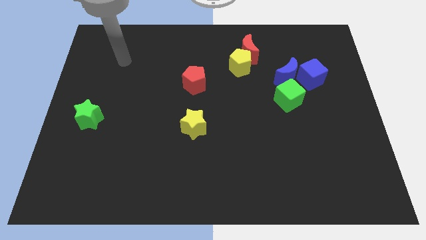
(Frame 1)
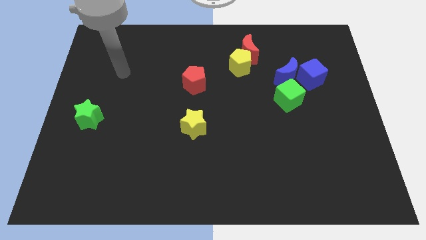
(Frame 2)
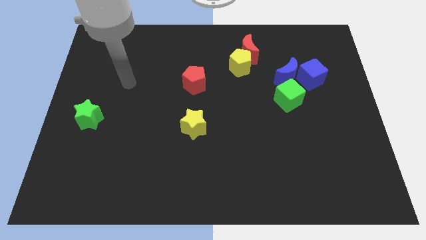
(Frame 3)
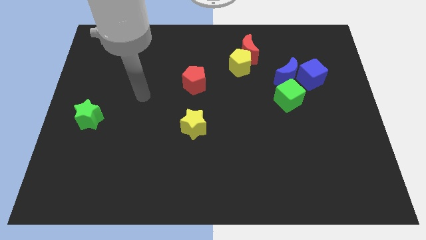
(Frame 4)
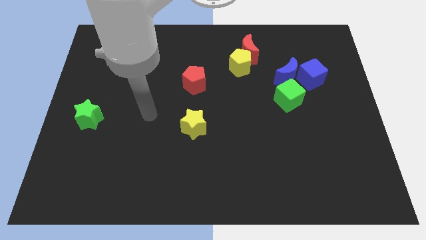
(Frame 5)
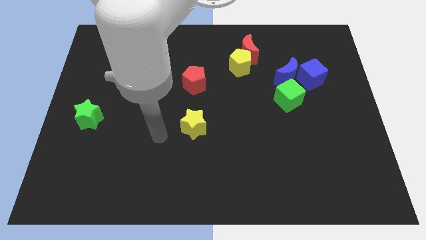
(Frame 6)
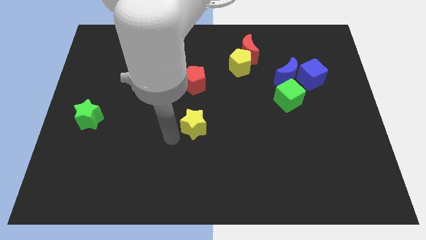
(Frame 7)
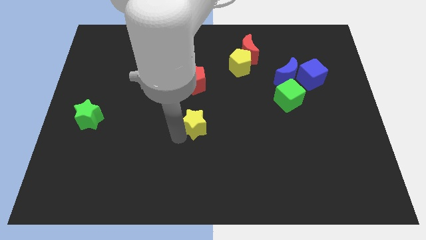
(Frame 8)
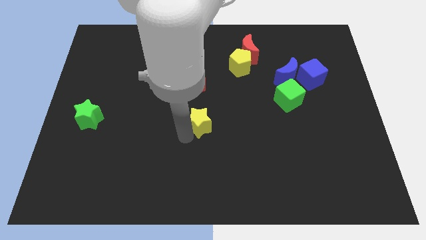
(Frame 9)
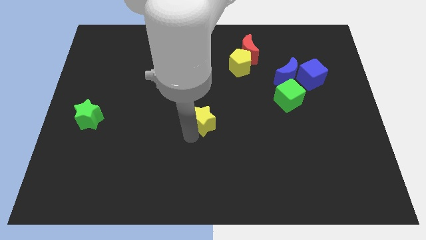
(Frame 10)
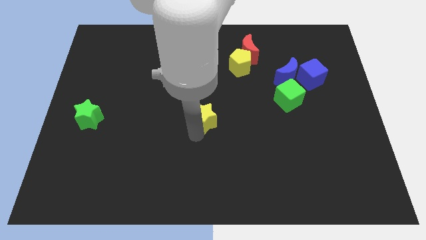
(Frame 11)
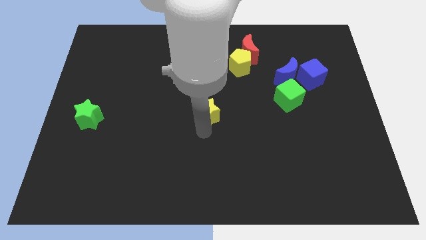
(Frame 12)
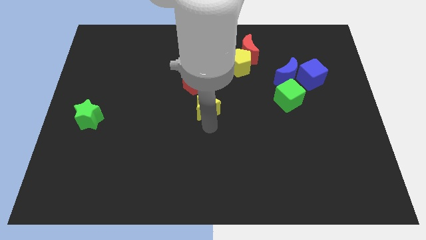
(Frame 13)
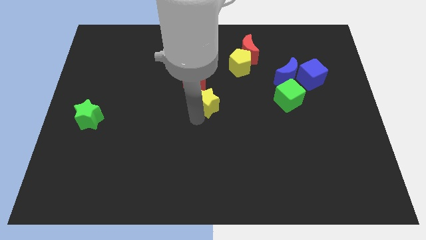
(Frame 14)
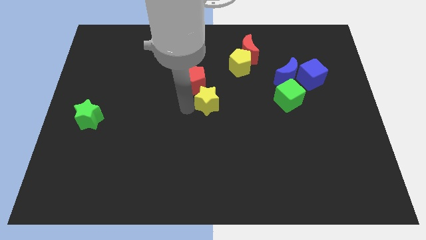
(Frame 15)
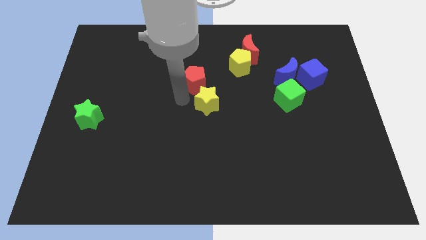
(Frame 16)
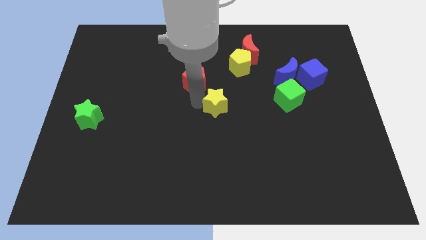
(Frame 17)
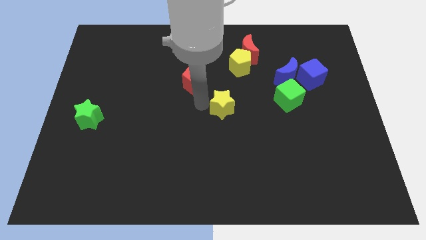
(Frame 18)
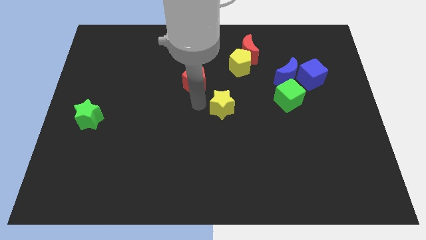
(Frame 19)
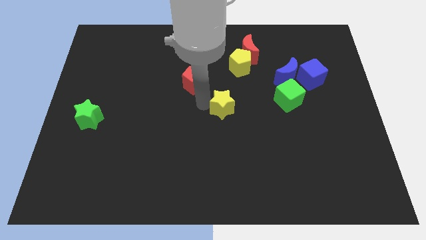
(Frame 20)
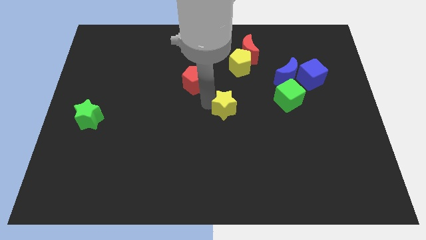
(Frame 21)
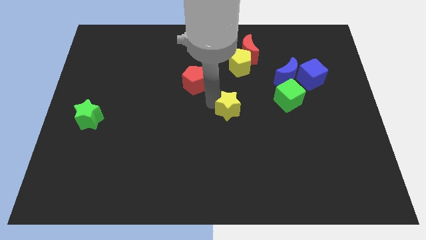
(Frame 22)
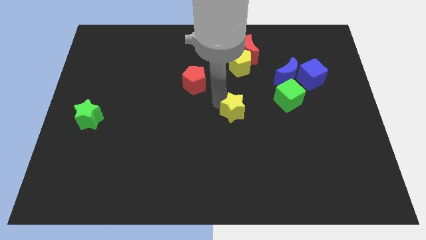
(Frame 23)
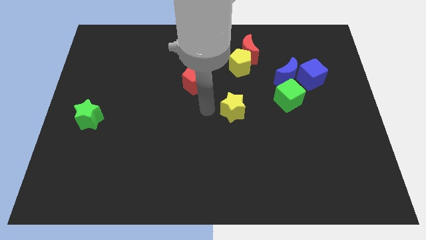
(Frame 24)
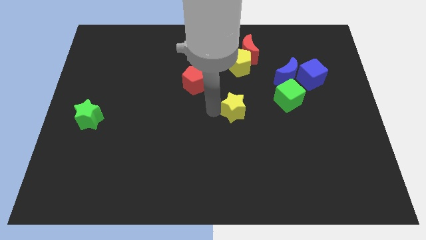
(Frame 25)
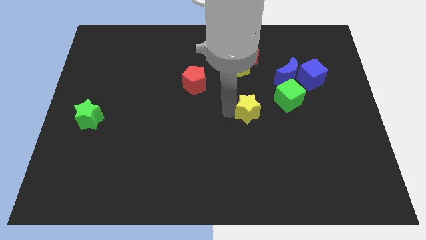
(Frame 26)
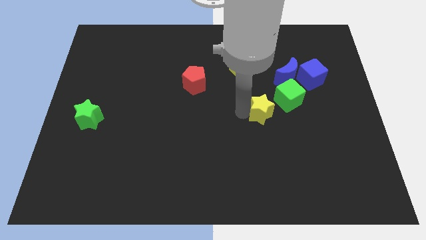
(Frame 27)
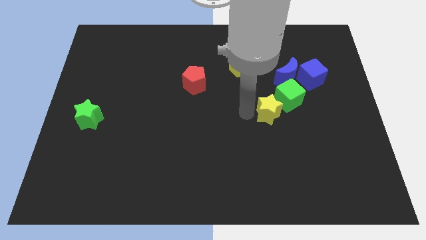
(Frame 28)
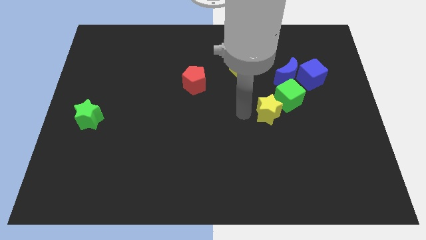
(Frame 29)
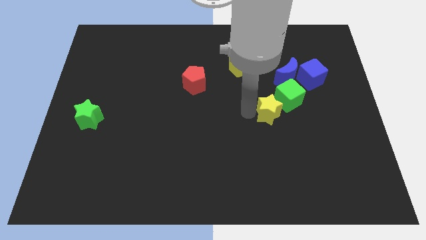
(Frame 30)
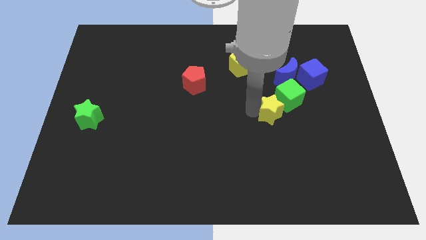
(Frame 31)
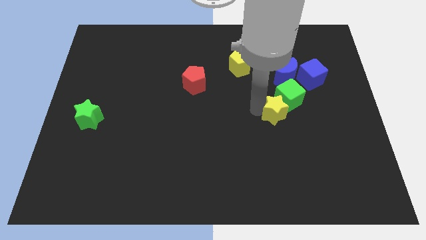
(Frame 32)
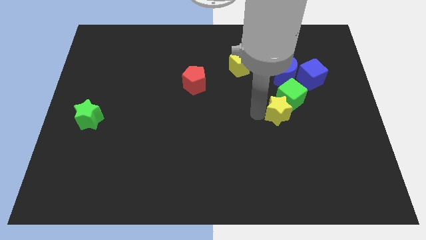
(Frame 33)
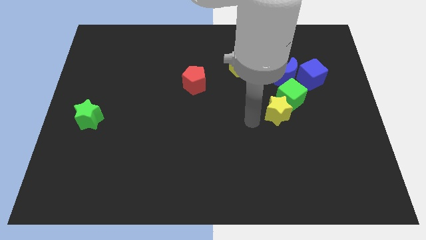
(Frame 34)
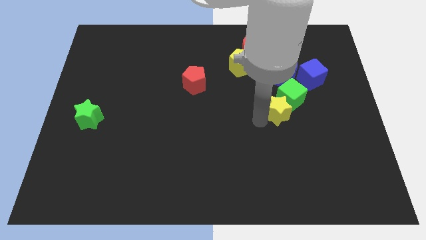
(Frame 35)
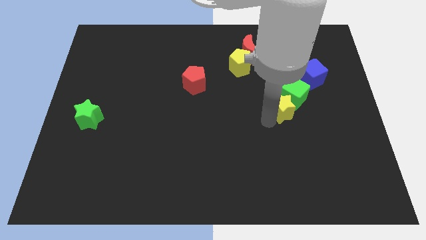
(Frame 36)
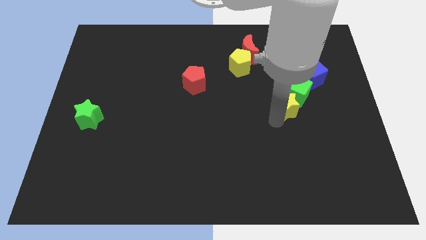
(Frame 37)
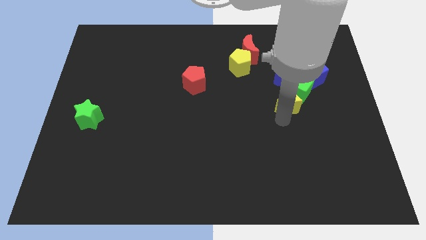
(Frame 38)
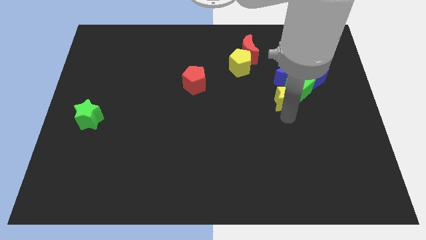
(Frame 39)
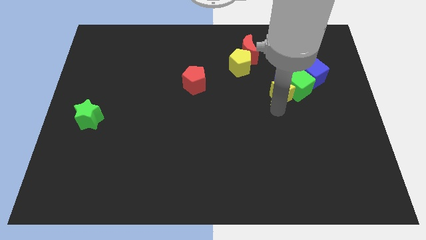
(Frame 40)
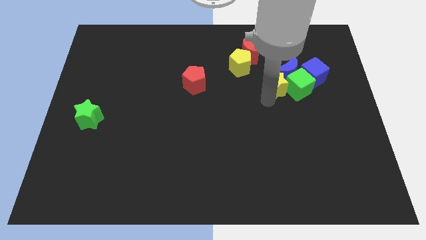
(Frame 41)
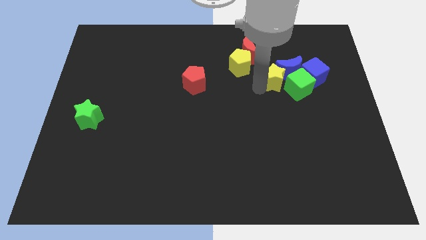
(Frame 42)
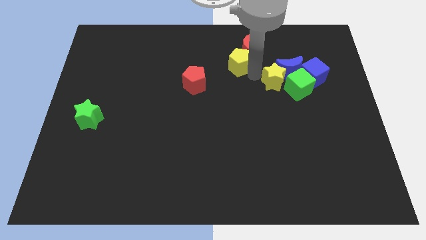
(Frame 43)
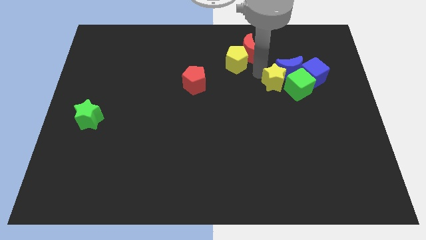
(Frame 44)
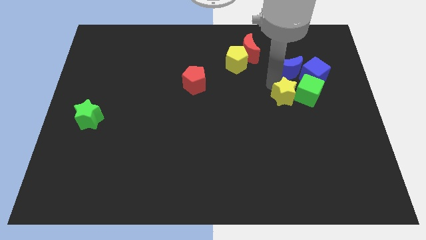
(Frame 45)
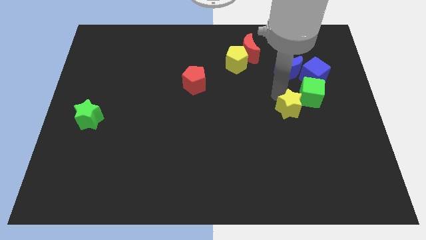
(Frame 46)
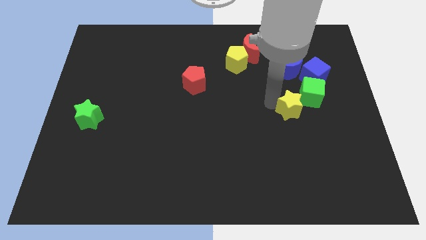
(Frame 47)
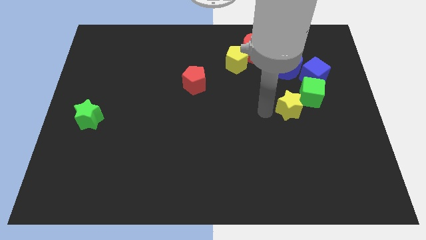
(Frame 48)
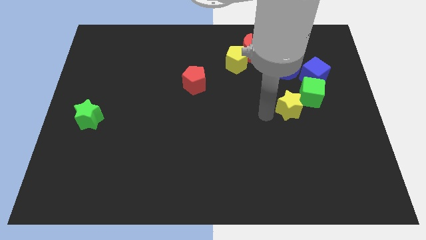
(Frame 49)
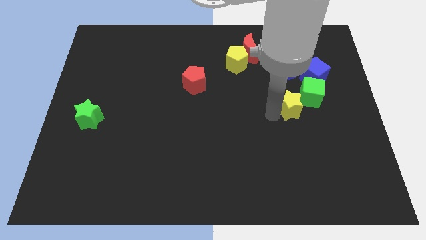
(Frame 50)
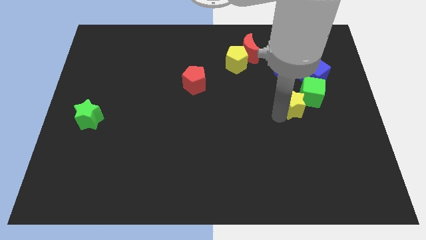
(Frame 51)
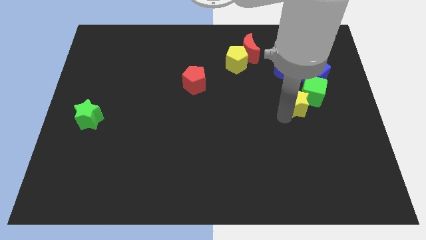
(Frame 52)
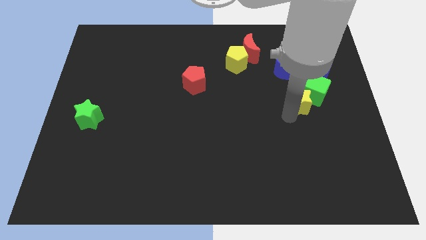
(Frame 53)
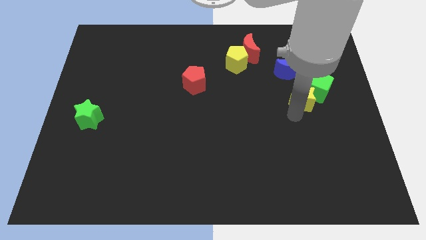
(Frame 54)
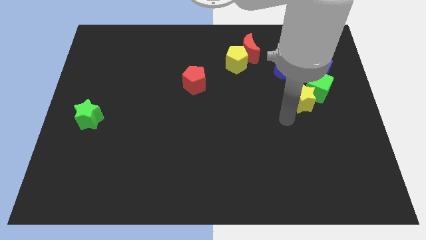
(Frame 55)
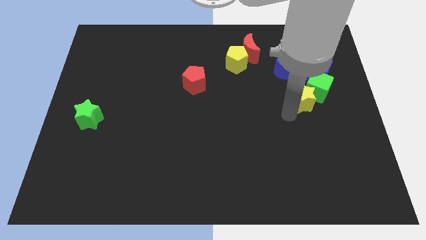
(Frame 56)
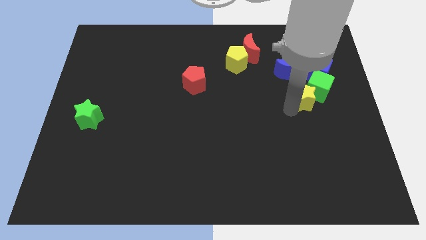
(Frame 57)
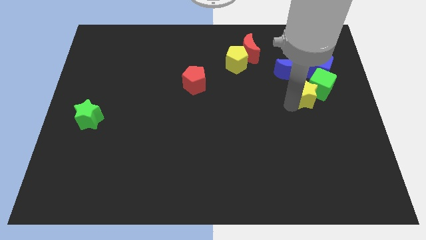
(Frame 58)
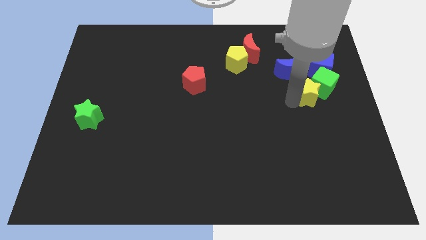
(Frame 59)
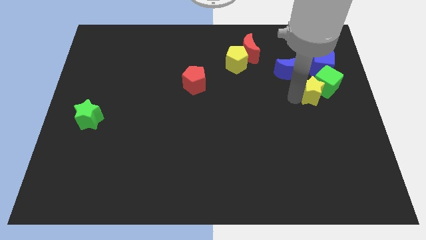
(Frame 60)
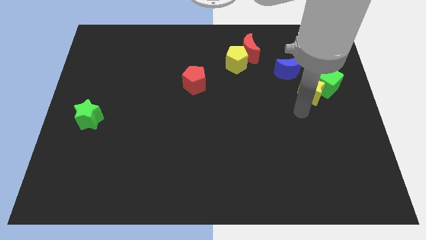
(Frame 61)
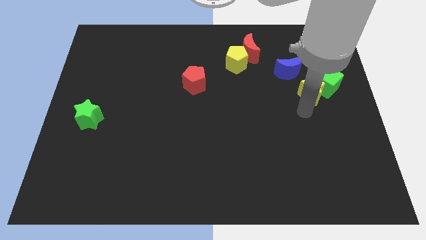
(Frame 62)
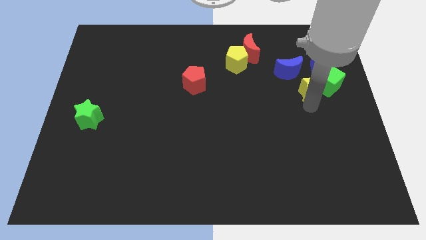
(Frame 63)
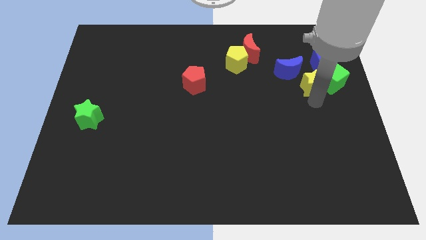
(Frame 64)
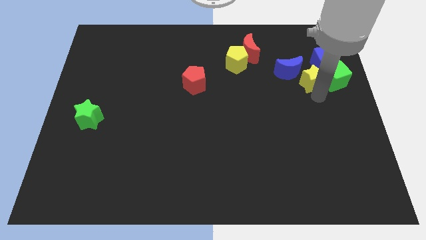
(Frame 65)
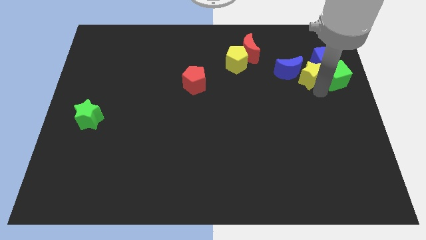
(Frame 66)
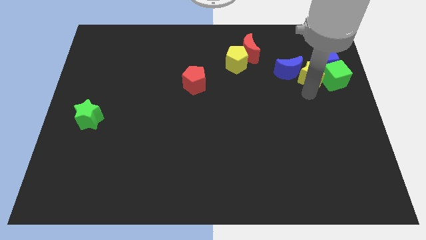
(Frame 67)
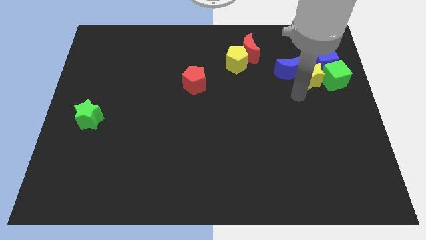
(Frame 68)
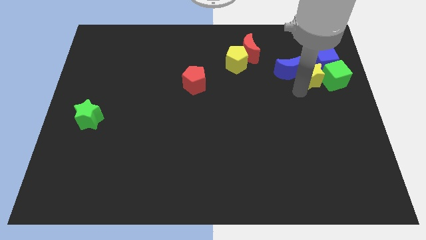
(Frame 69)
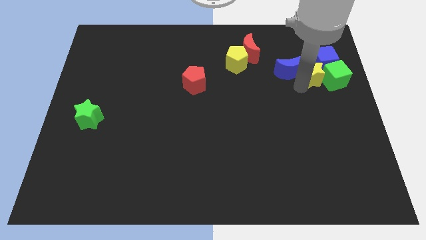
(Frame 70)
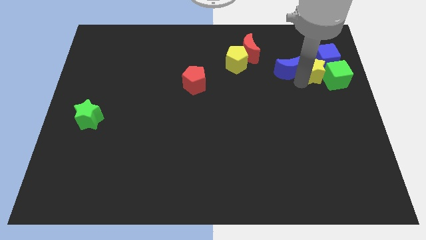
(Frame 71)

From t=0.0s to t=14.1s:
put the yellow star to the blue cube
